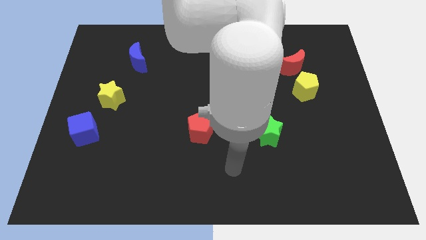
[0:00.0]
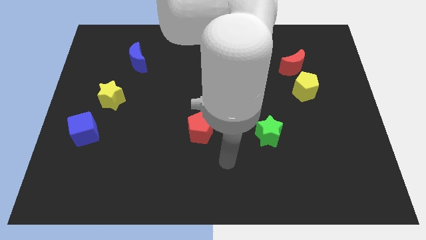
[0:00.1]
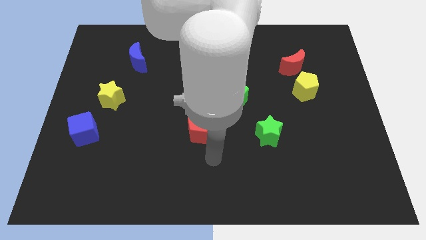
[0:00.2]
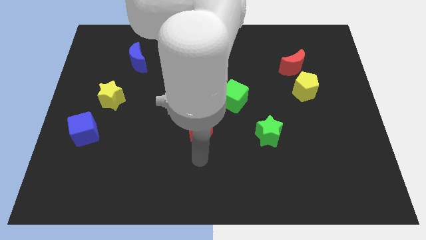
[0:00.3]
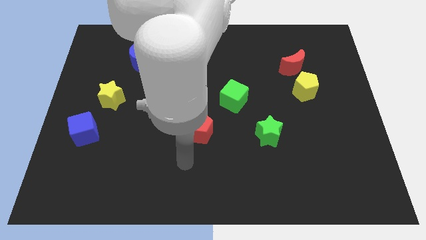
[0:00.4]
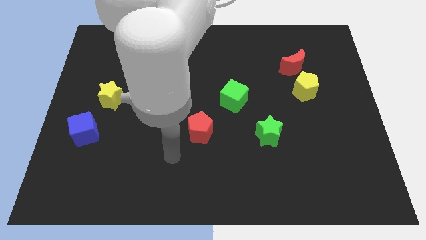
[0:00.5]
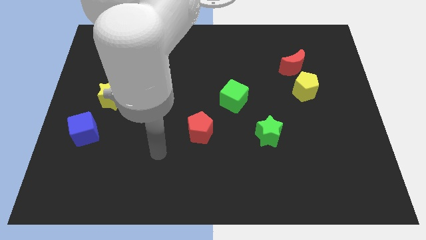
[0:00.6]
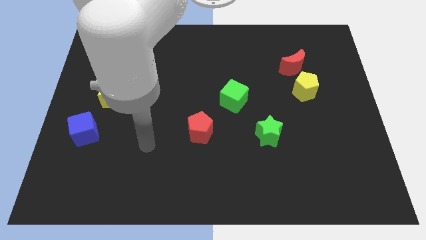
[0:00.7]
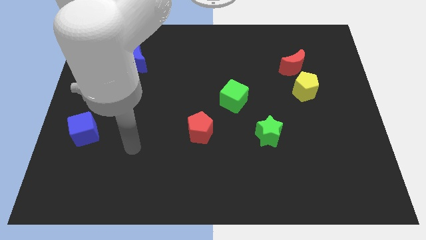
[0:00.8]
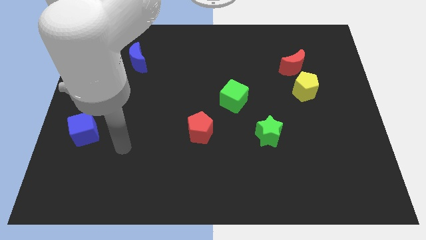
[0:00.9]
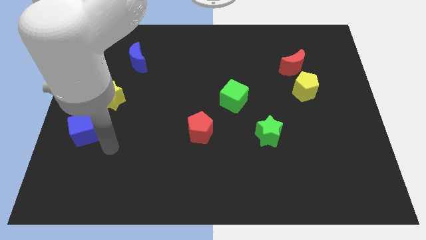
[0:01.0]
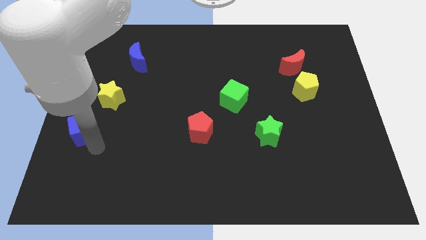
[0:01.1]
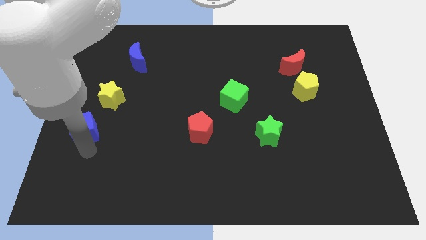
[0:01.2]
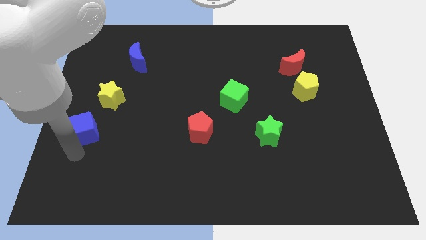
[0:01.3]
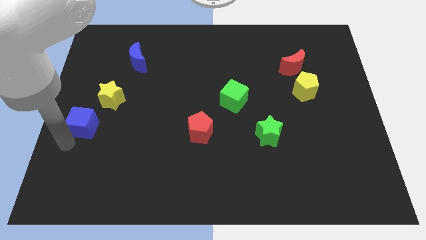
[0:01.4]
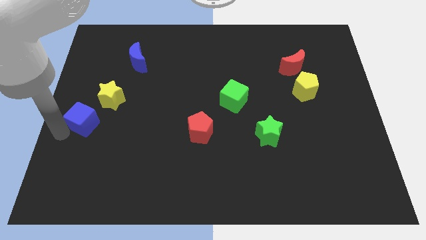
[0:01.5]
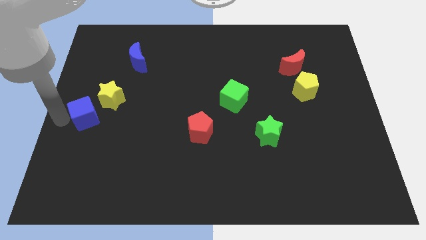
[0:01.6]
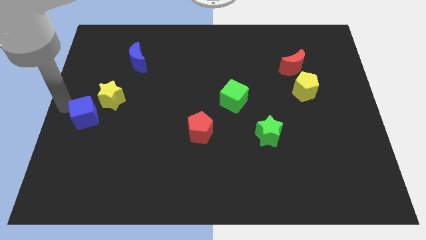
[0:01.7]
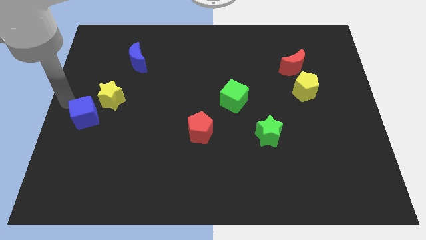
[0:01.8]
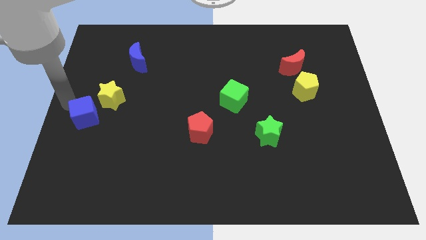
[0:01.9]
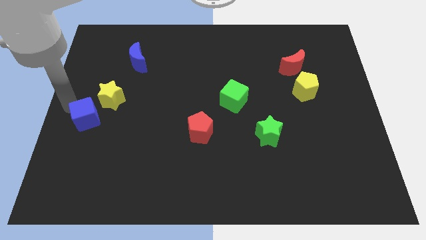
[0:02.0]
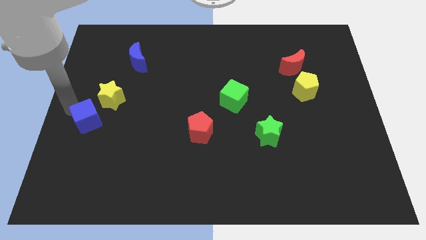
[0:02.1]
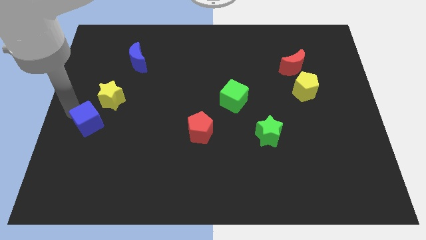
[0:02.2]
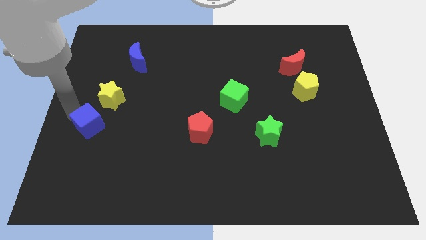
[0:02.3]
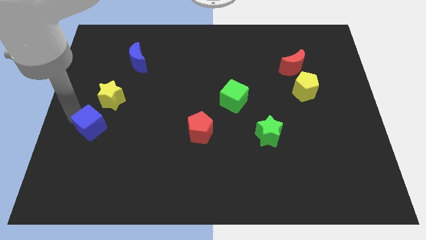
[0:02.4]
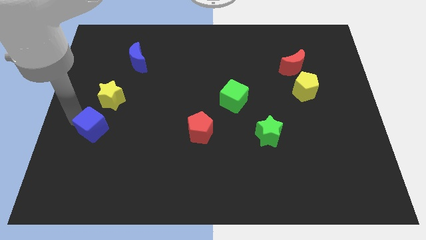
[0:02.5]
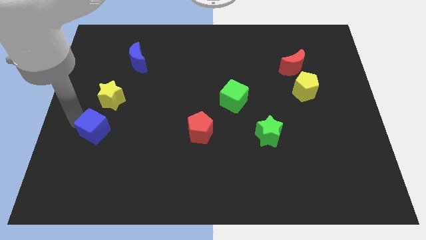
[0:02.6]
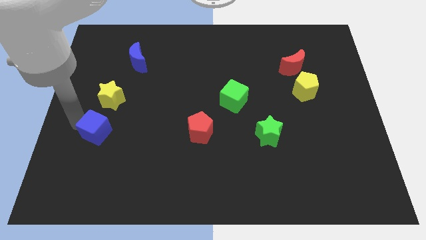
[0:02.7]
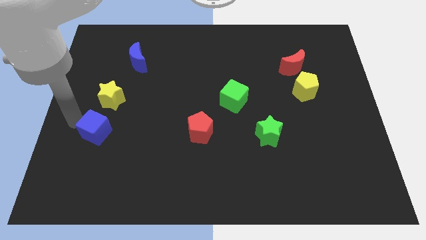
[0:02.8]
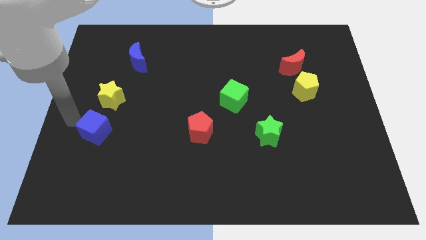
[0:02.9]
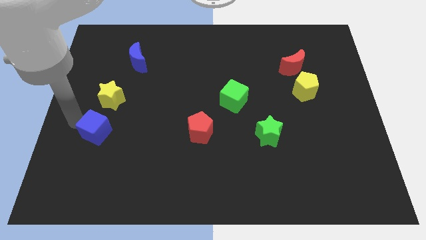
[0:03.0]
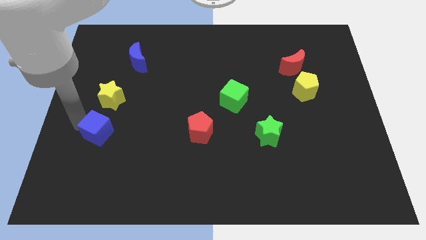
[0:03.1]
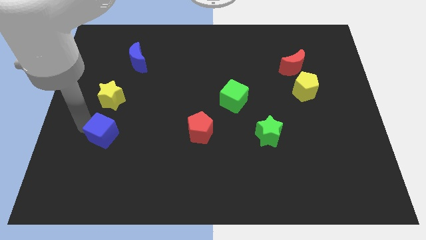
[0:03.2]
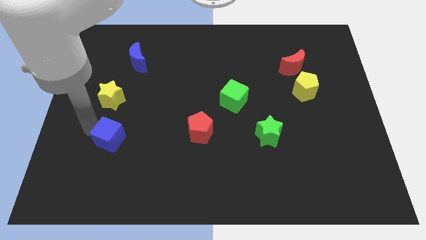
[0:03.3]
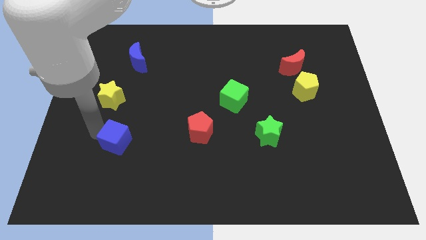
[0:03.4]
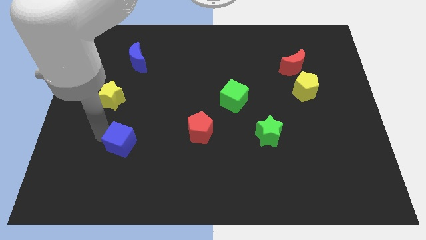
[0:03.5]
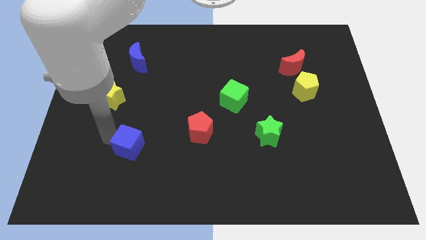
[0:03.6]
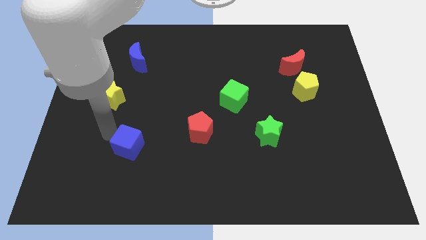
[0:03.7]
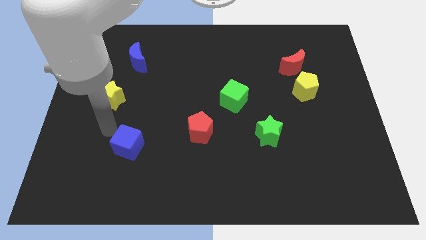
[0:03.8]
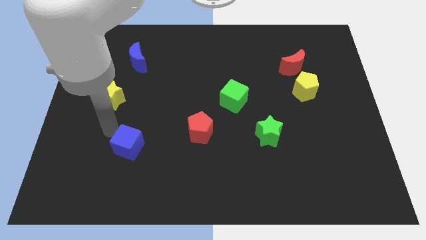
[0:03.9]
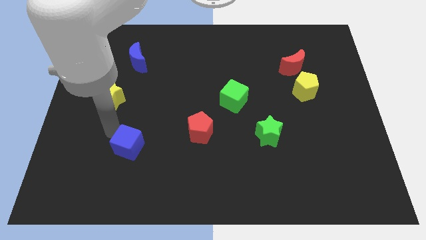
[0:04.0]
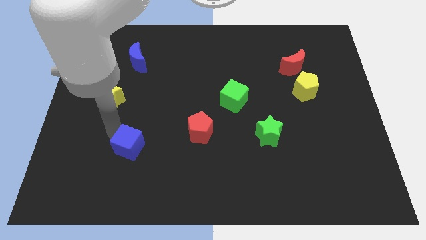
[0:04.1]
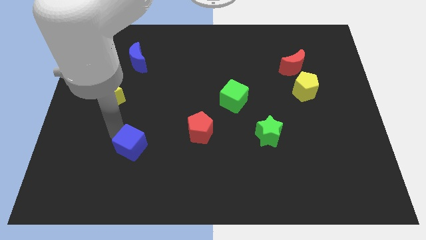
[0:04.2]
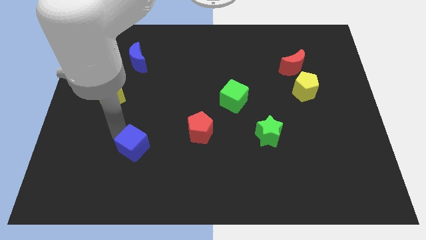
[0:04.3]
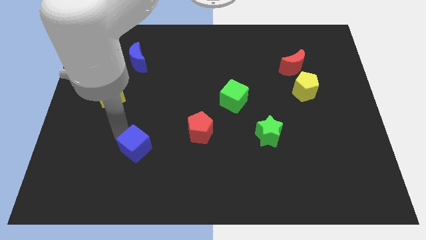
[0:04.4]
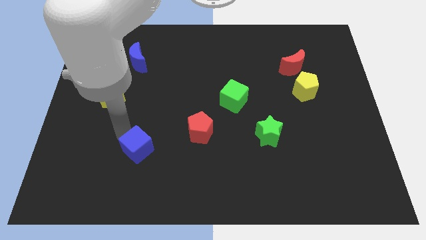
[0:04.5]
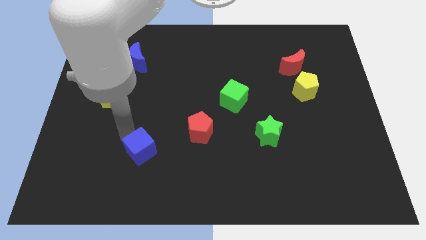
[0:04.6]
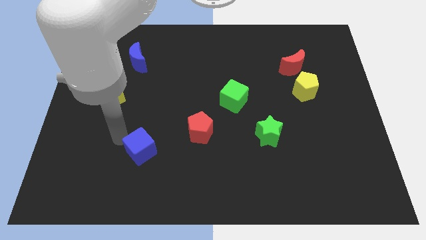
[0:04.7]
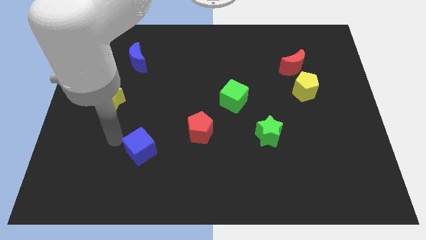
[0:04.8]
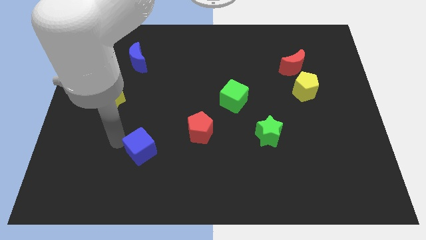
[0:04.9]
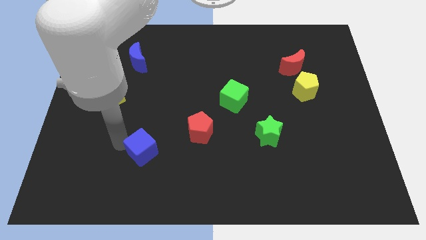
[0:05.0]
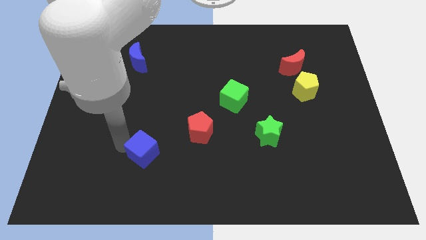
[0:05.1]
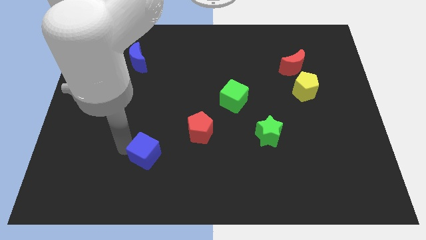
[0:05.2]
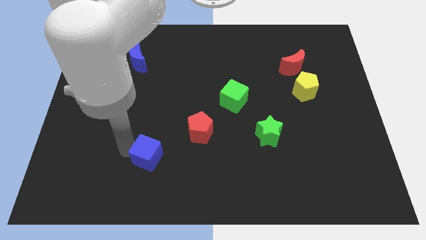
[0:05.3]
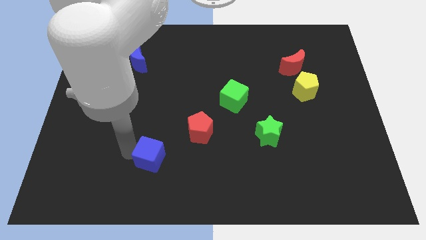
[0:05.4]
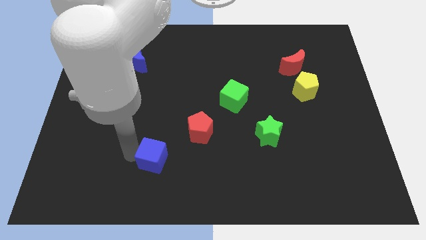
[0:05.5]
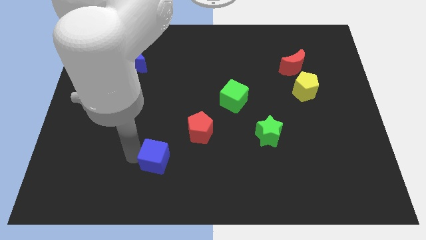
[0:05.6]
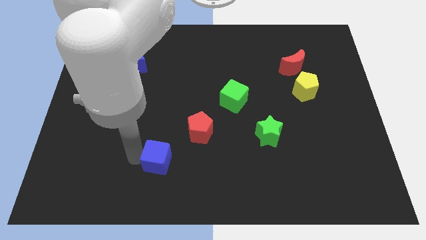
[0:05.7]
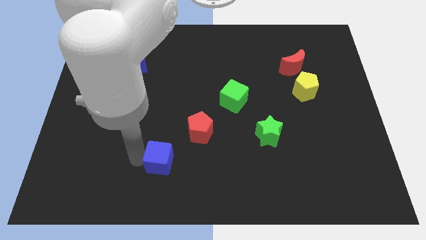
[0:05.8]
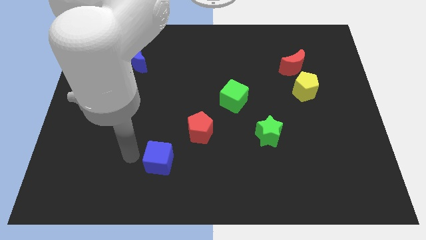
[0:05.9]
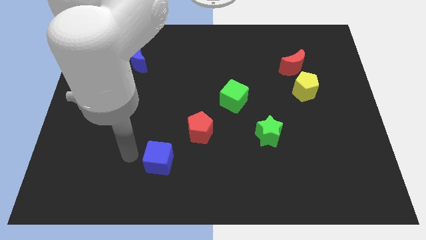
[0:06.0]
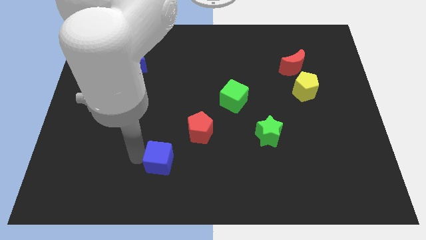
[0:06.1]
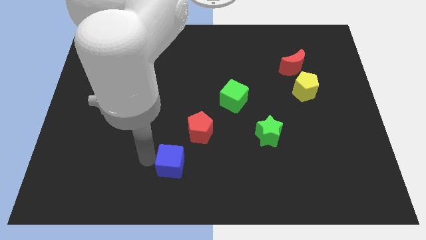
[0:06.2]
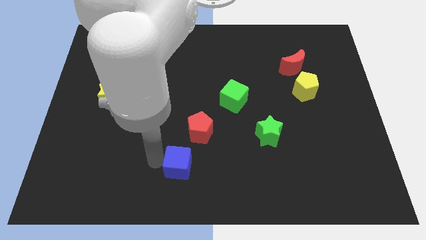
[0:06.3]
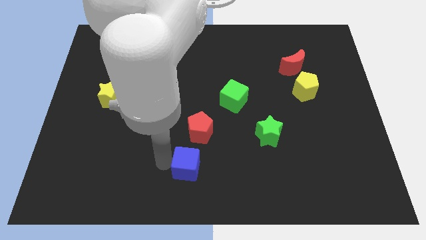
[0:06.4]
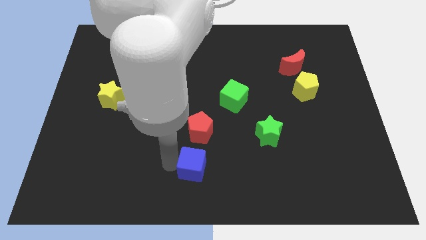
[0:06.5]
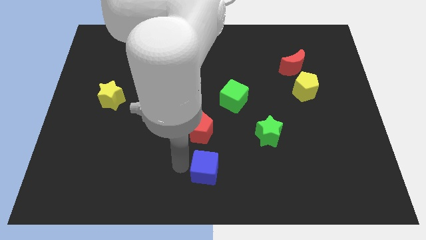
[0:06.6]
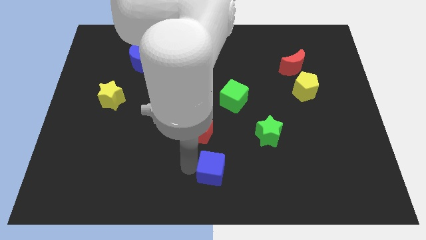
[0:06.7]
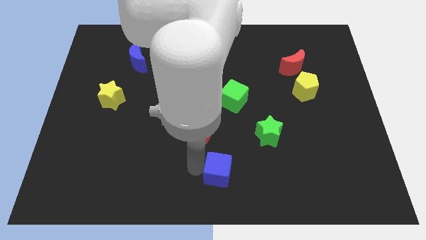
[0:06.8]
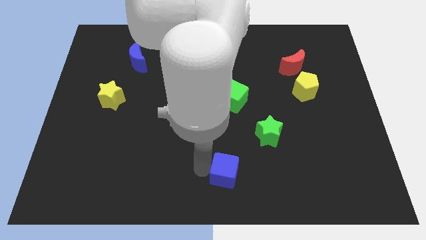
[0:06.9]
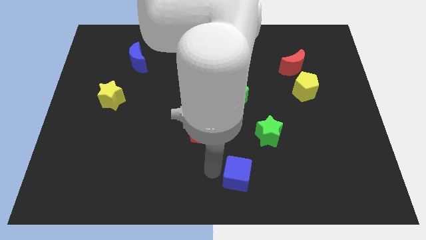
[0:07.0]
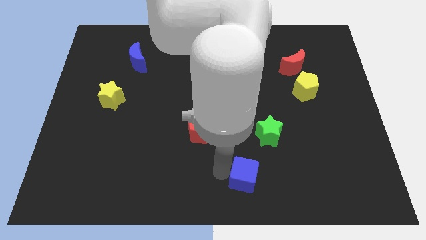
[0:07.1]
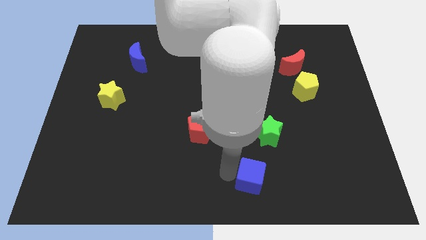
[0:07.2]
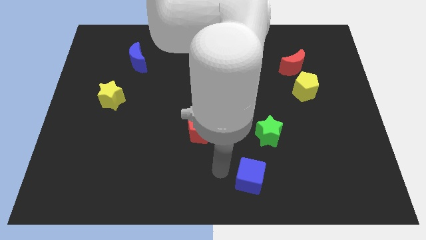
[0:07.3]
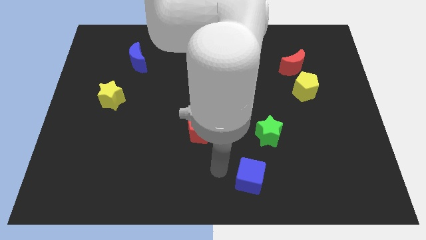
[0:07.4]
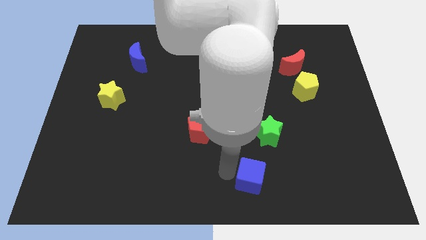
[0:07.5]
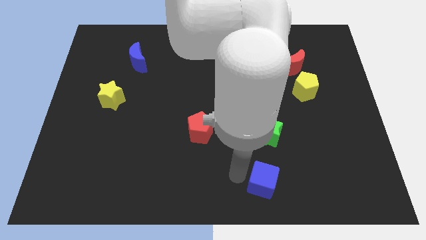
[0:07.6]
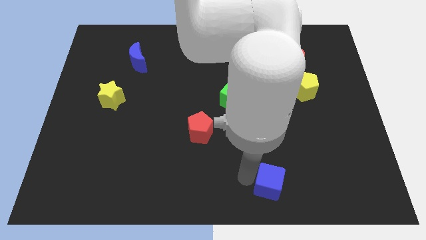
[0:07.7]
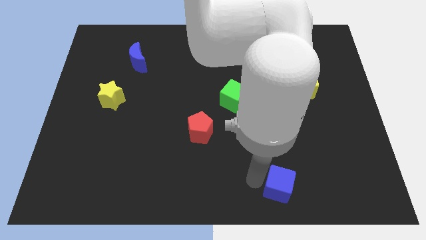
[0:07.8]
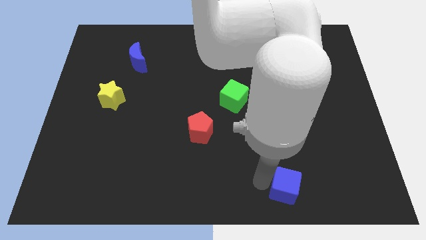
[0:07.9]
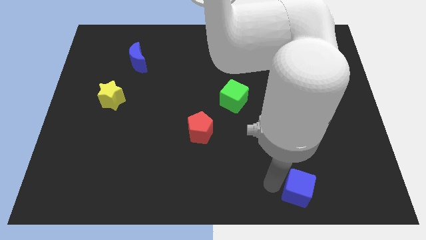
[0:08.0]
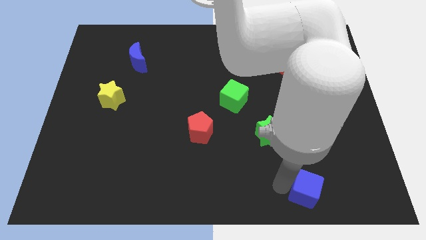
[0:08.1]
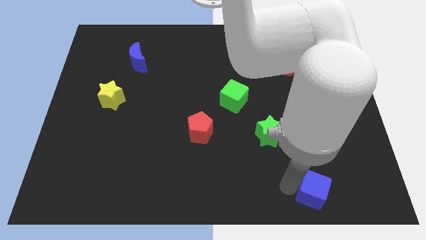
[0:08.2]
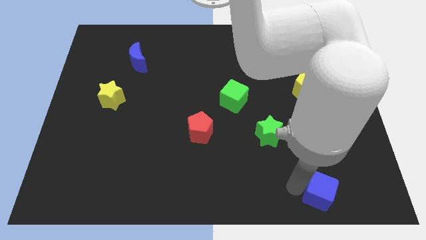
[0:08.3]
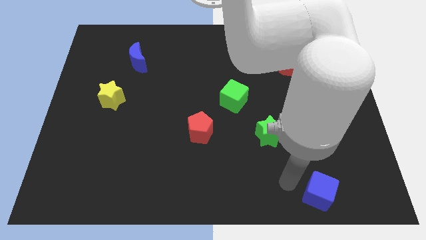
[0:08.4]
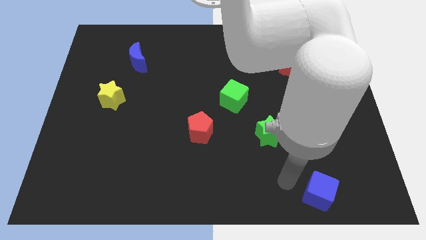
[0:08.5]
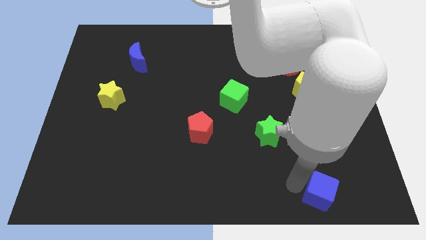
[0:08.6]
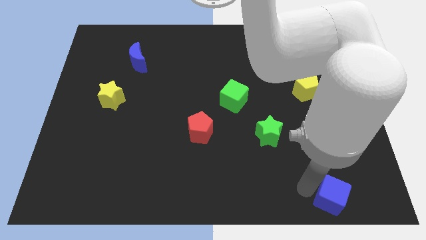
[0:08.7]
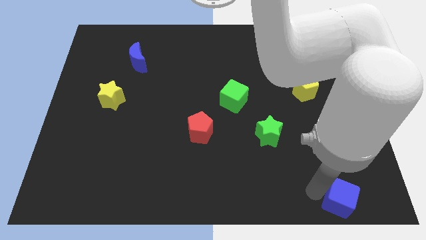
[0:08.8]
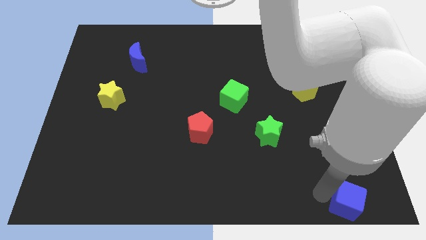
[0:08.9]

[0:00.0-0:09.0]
move the blue cube to the bottom right corner
